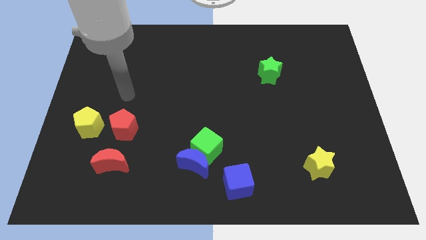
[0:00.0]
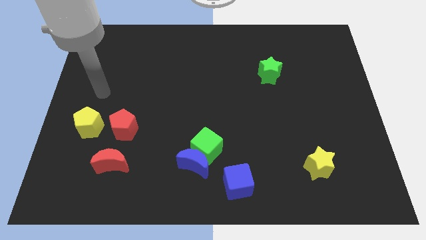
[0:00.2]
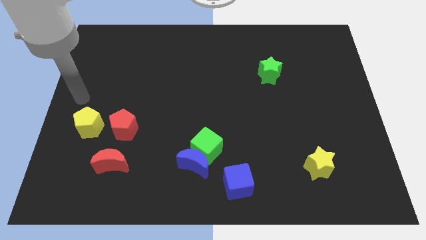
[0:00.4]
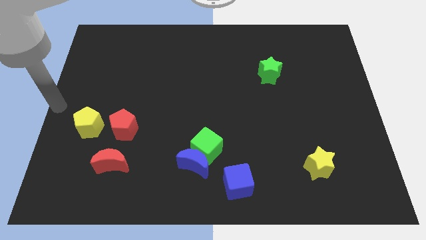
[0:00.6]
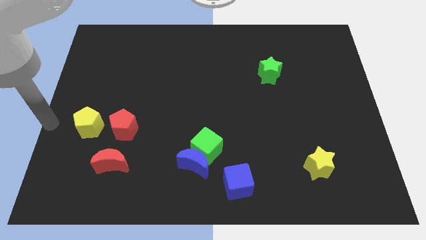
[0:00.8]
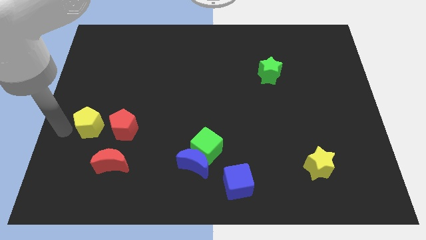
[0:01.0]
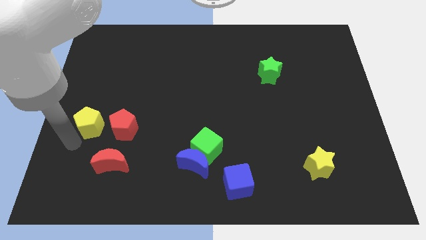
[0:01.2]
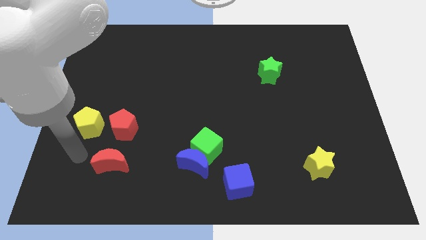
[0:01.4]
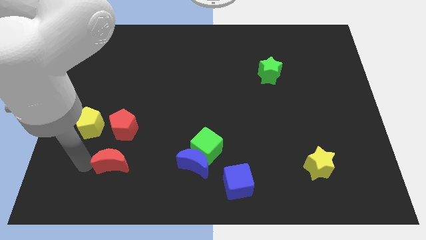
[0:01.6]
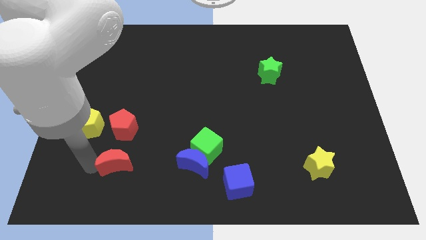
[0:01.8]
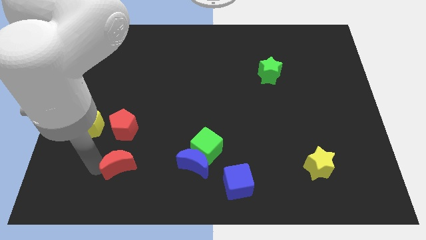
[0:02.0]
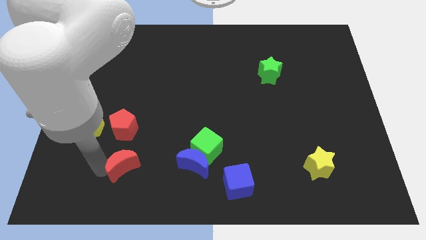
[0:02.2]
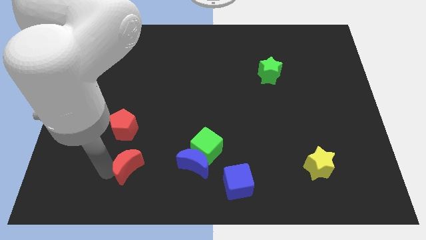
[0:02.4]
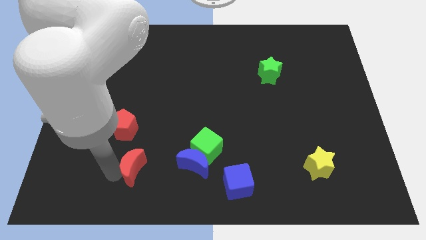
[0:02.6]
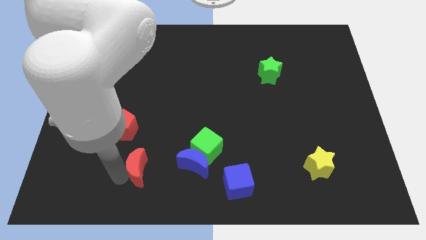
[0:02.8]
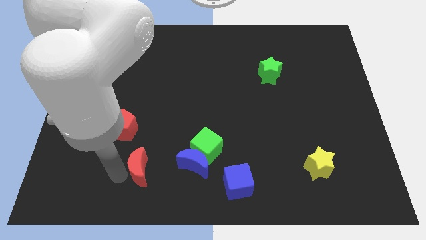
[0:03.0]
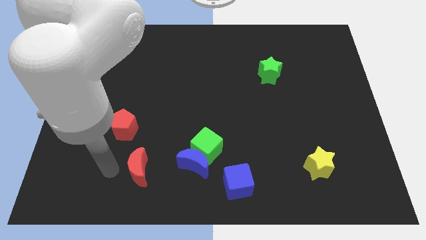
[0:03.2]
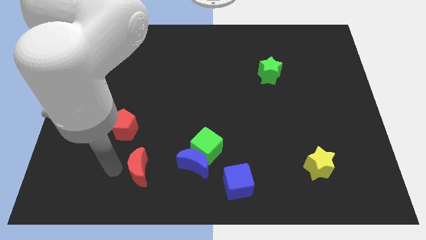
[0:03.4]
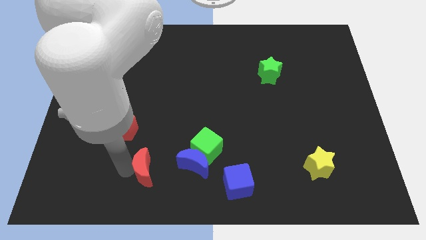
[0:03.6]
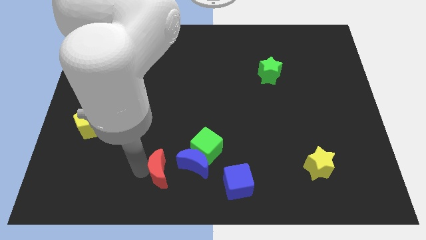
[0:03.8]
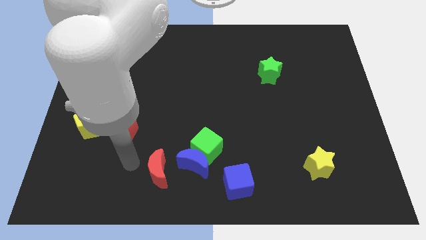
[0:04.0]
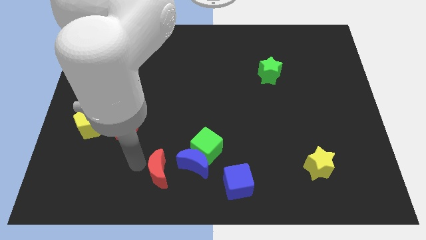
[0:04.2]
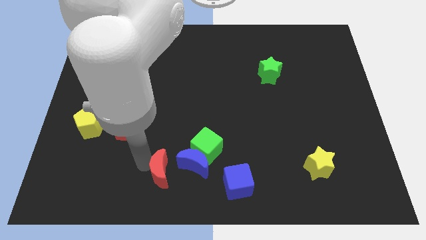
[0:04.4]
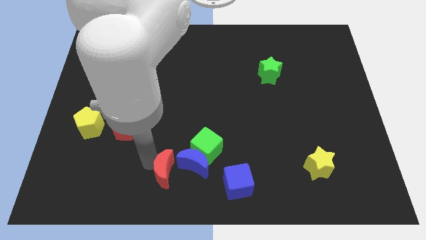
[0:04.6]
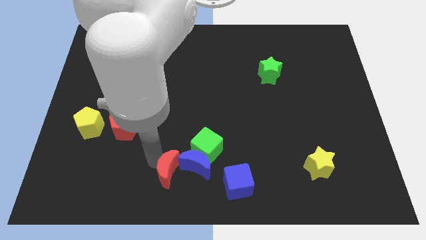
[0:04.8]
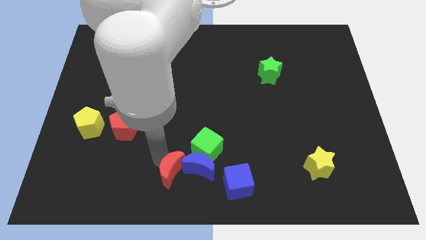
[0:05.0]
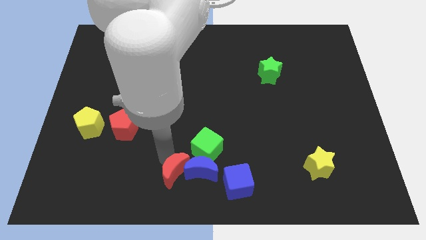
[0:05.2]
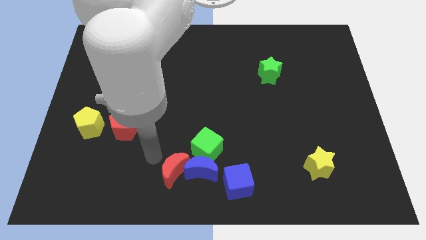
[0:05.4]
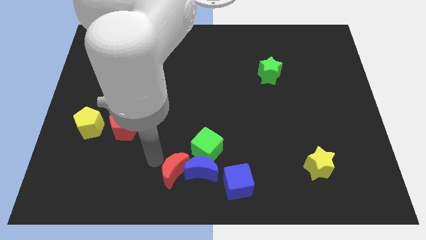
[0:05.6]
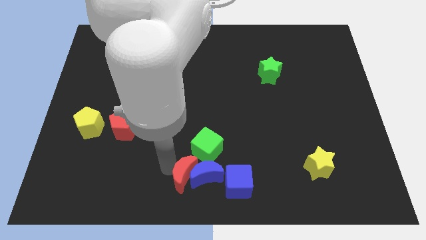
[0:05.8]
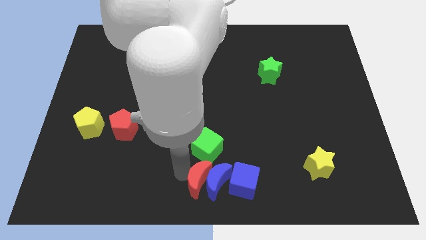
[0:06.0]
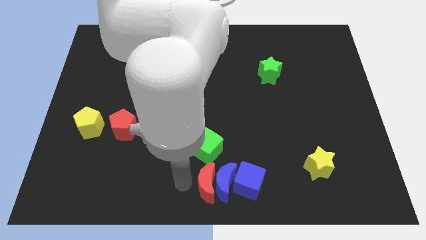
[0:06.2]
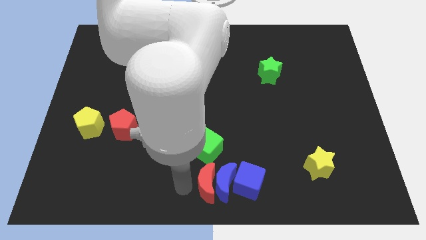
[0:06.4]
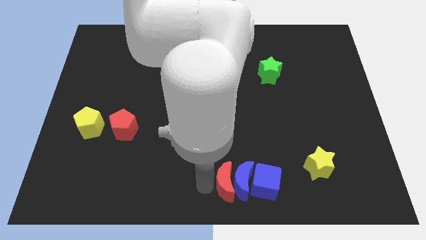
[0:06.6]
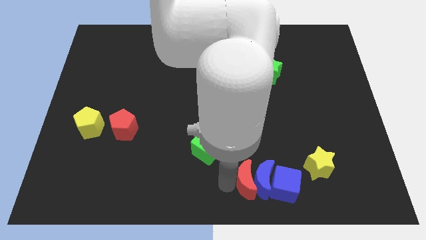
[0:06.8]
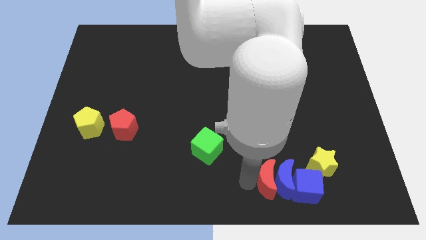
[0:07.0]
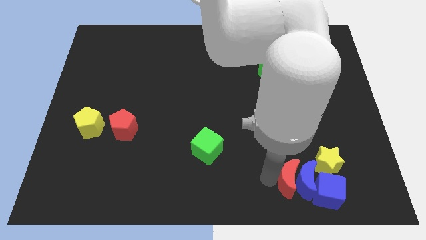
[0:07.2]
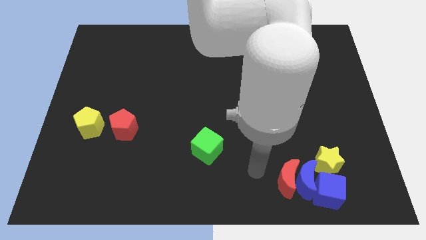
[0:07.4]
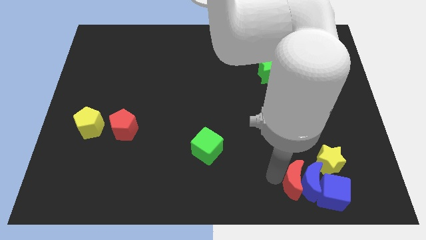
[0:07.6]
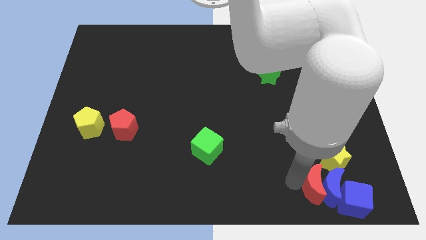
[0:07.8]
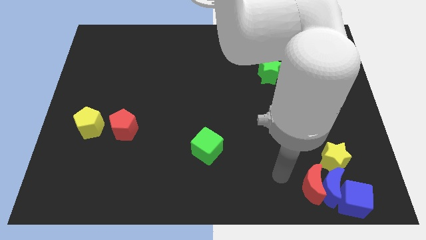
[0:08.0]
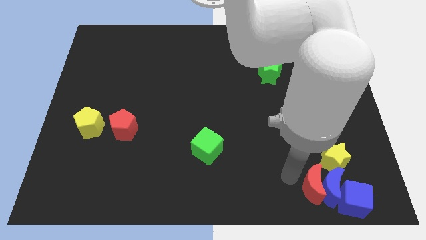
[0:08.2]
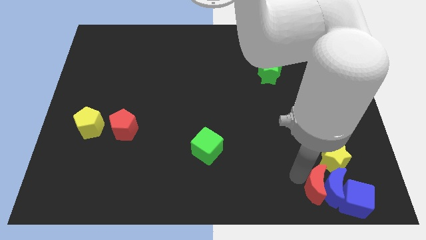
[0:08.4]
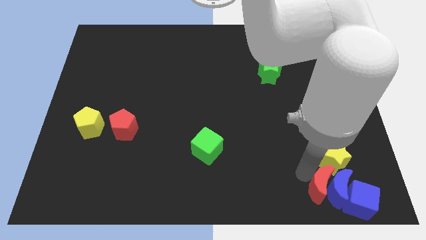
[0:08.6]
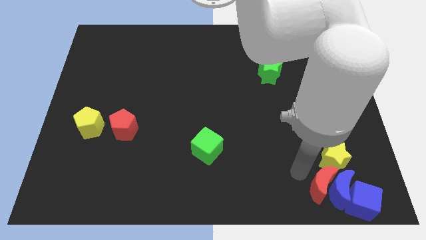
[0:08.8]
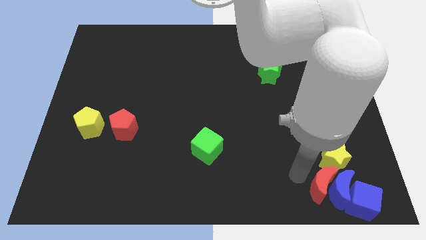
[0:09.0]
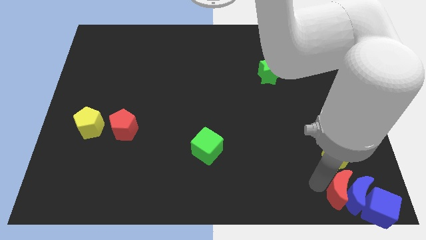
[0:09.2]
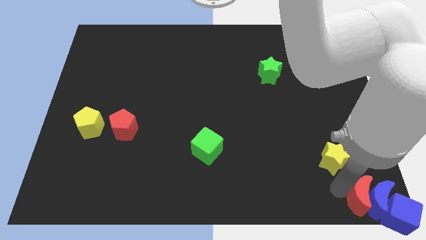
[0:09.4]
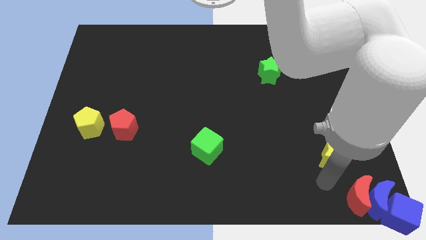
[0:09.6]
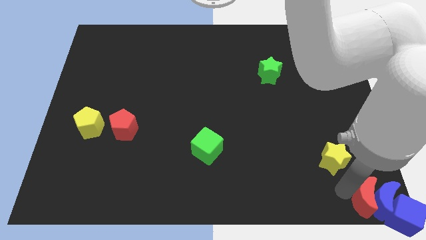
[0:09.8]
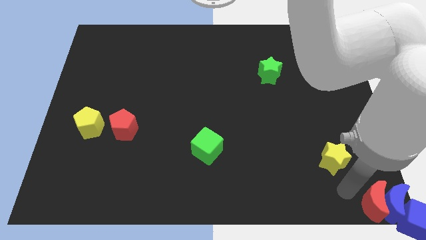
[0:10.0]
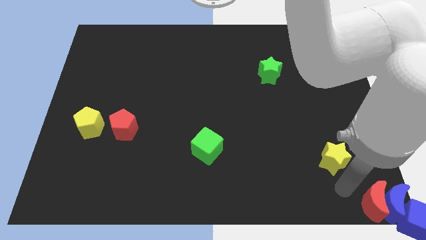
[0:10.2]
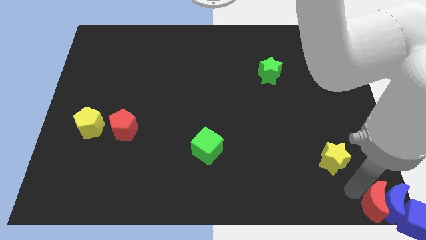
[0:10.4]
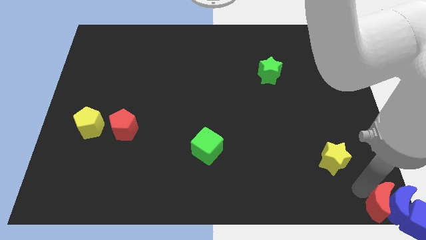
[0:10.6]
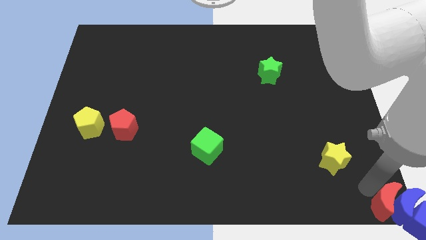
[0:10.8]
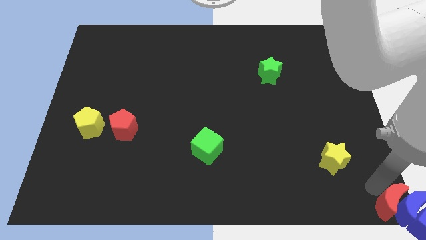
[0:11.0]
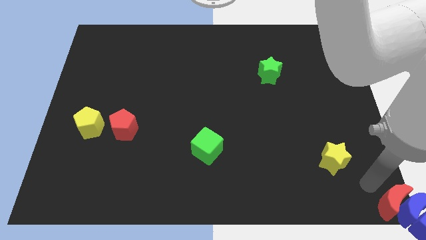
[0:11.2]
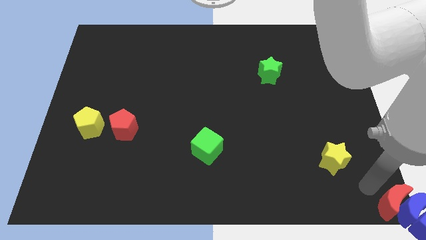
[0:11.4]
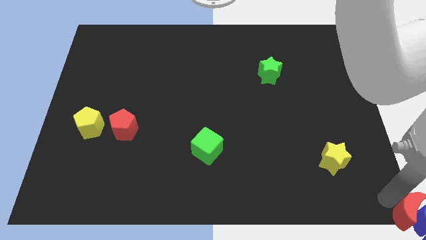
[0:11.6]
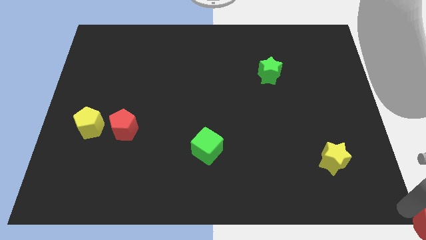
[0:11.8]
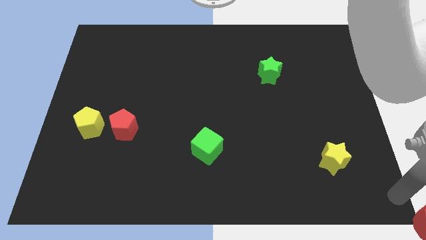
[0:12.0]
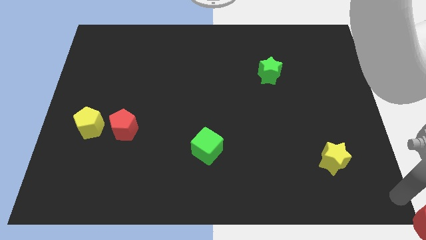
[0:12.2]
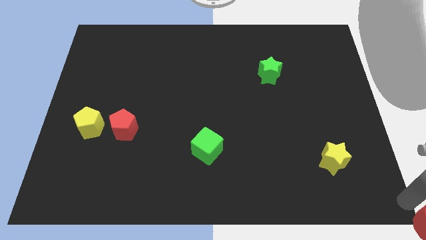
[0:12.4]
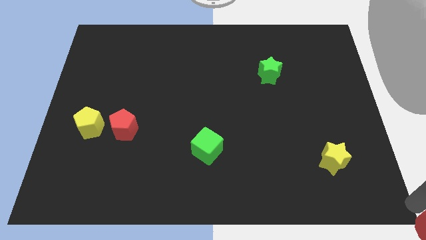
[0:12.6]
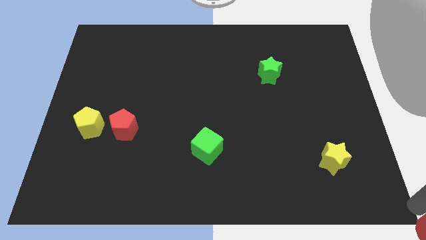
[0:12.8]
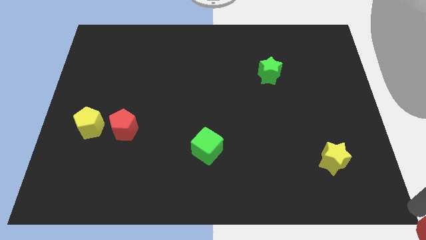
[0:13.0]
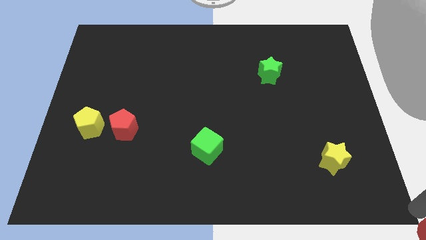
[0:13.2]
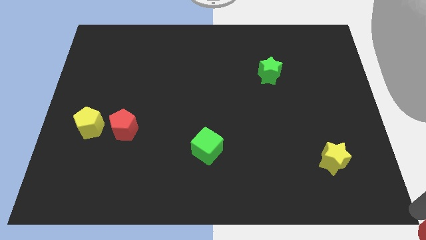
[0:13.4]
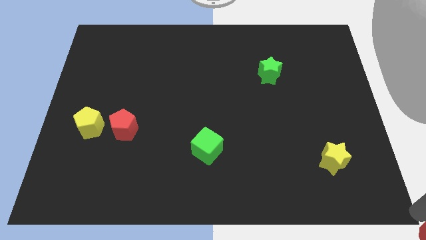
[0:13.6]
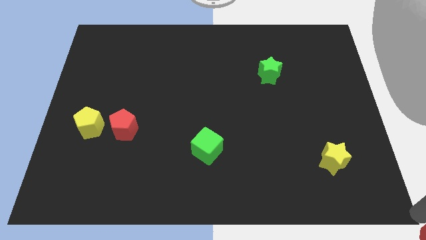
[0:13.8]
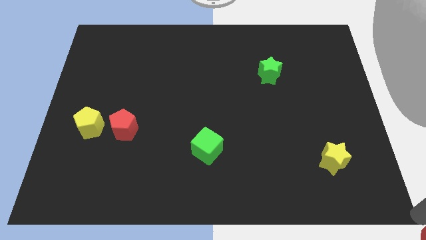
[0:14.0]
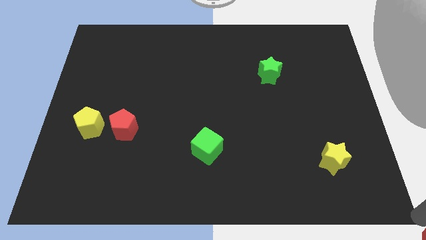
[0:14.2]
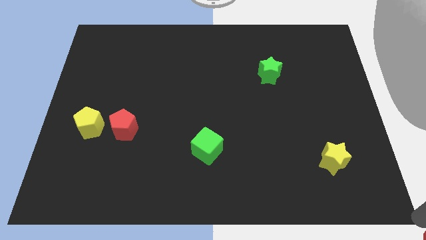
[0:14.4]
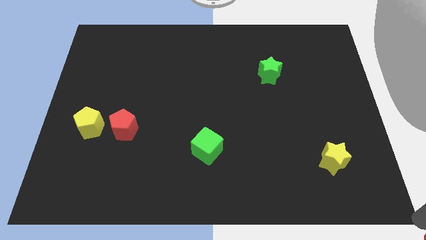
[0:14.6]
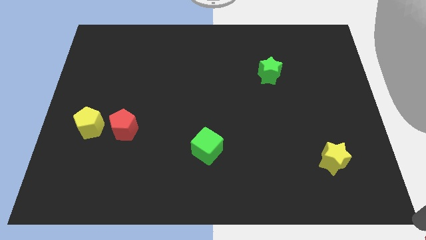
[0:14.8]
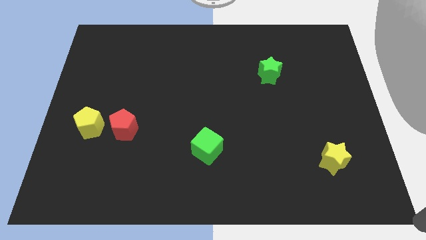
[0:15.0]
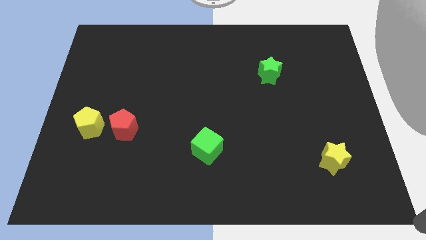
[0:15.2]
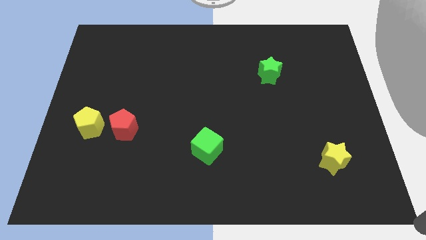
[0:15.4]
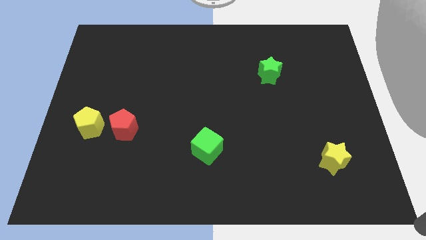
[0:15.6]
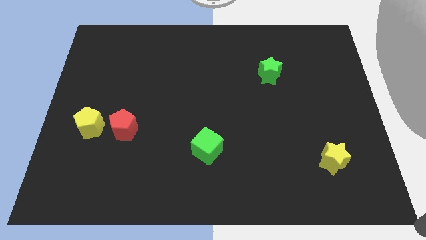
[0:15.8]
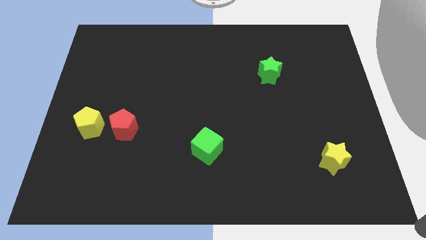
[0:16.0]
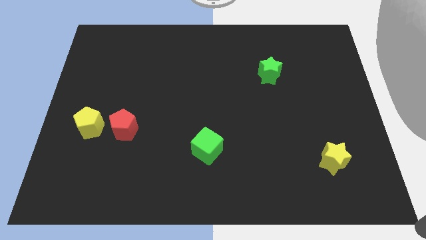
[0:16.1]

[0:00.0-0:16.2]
slide the red moon towards the blue cube
